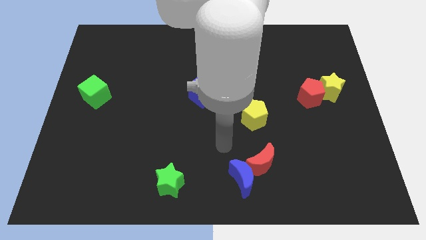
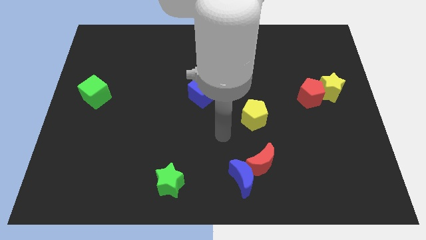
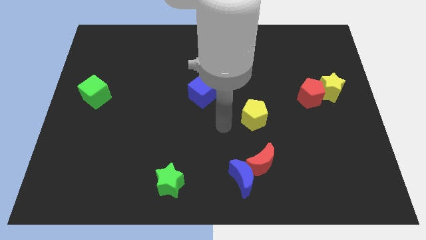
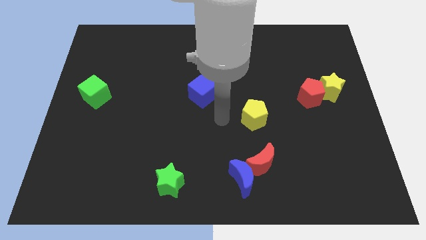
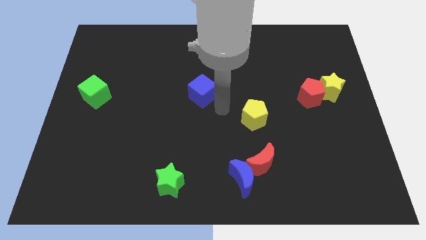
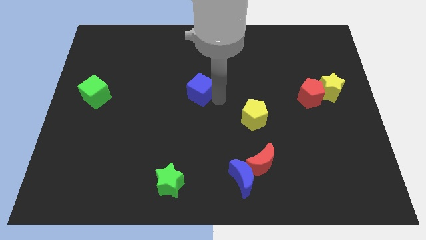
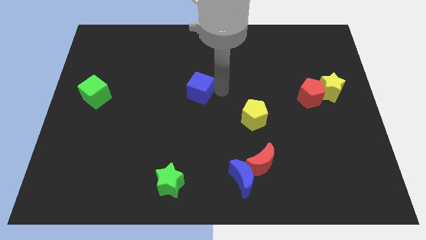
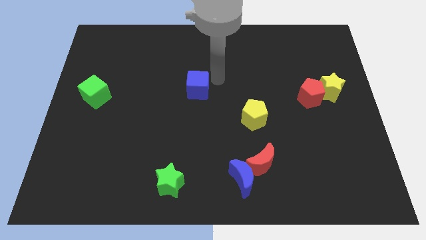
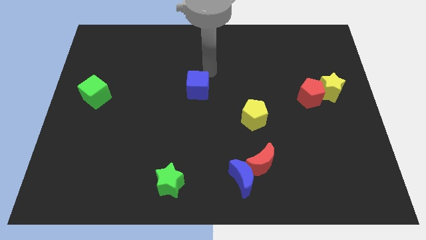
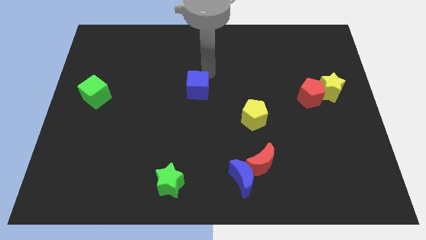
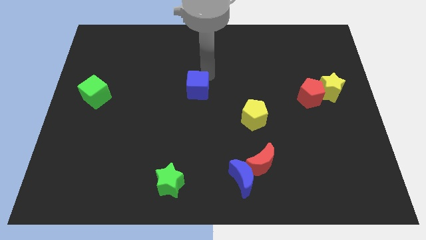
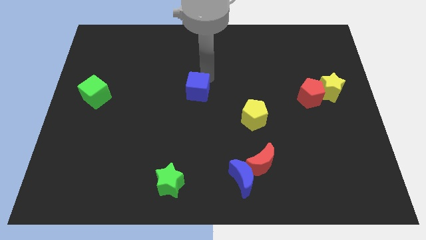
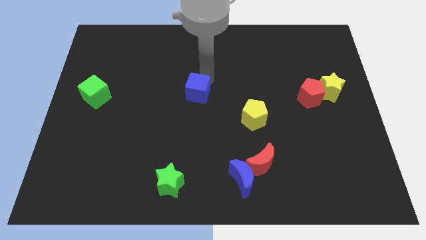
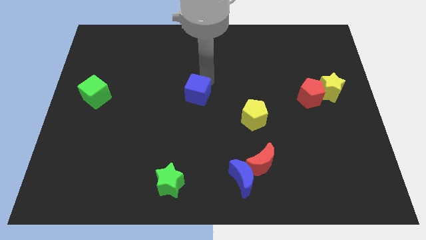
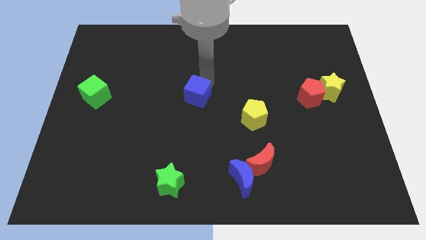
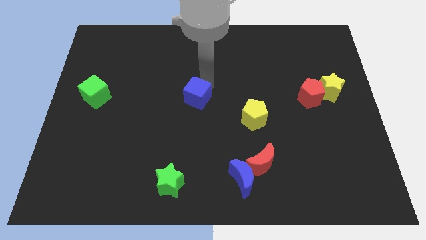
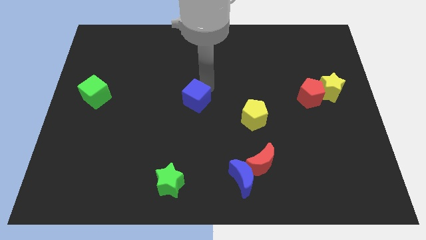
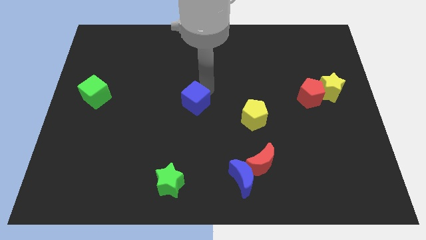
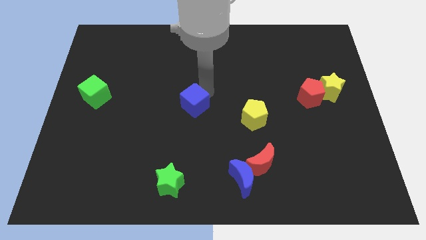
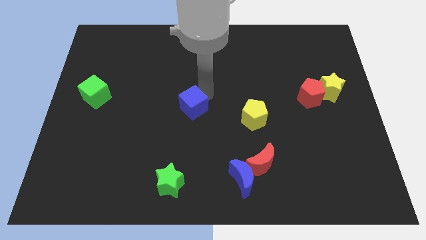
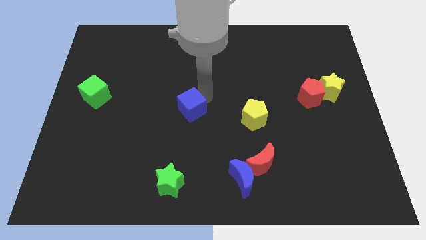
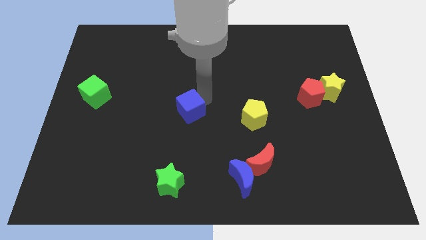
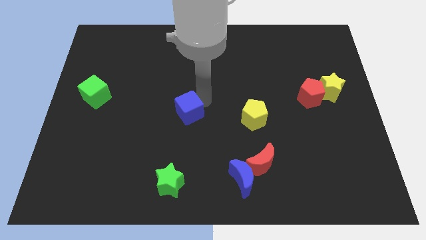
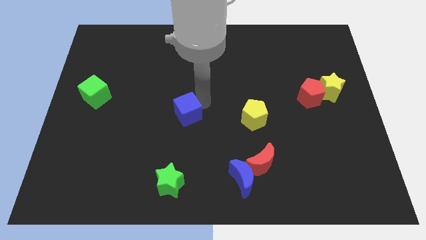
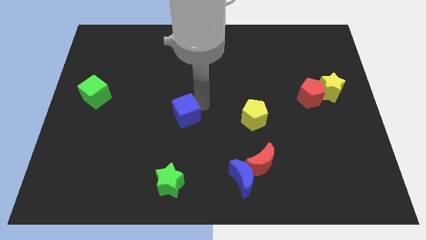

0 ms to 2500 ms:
slide the blue cube a bit diagonally downwards and to the left

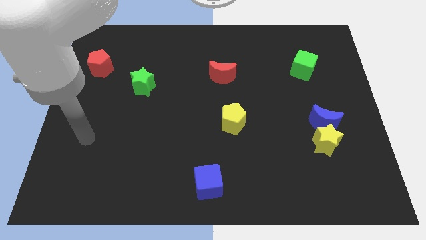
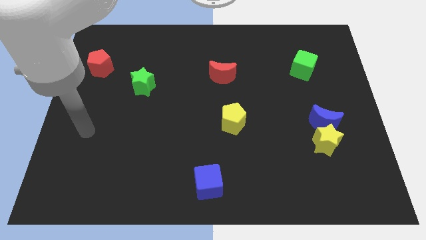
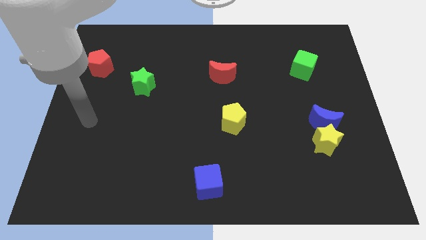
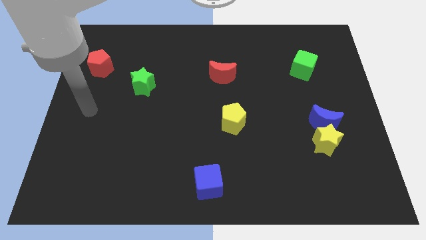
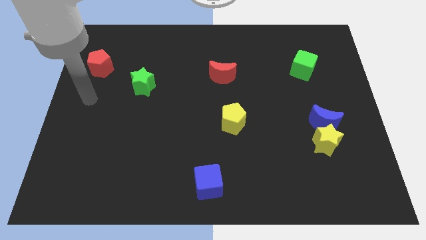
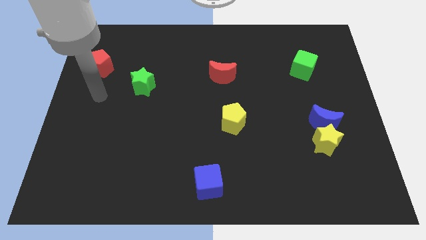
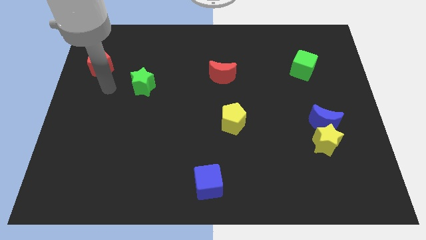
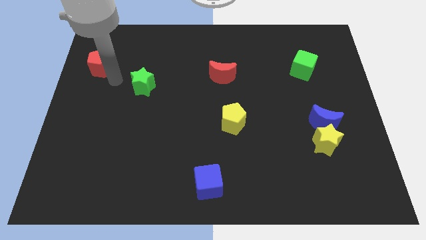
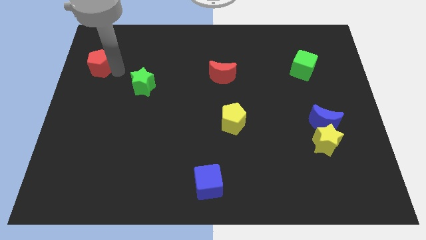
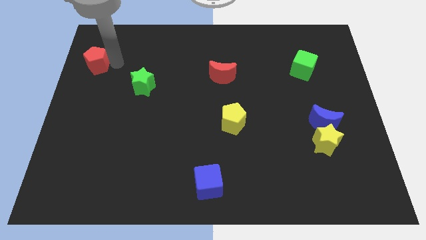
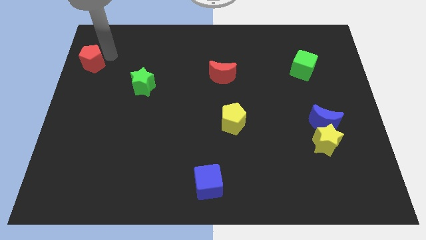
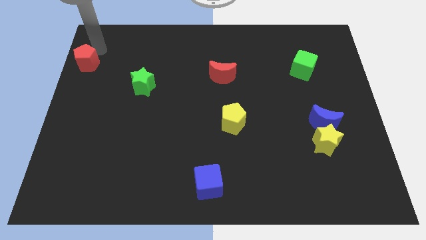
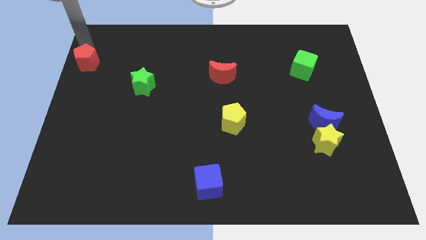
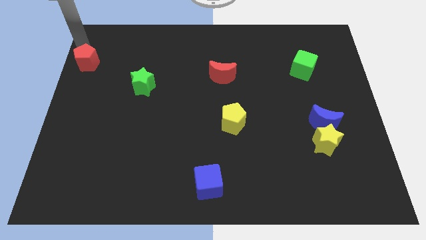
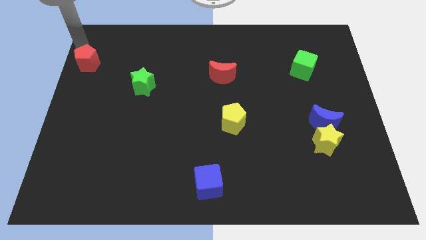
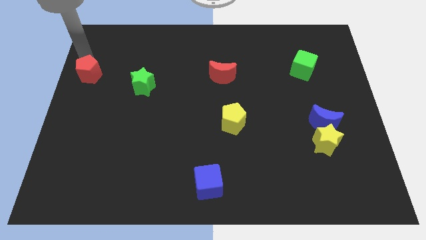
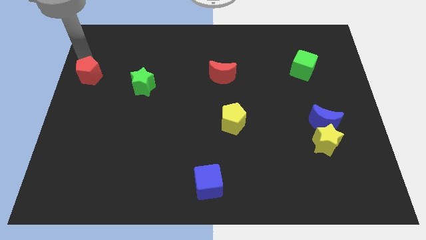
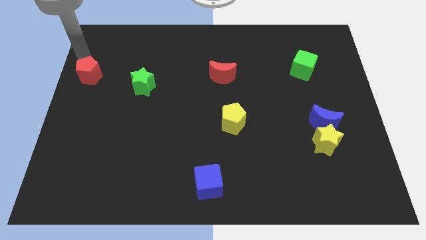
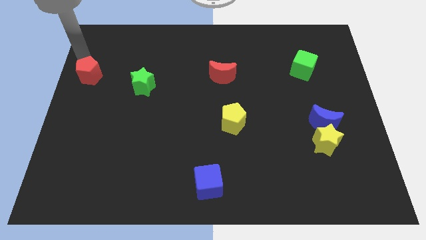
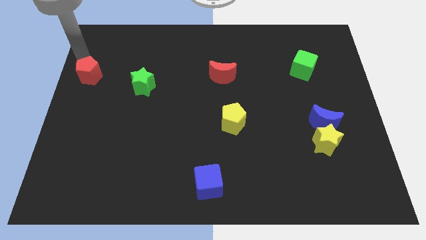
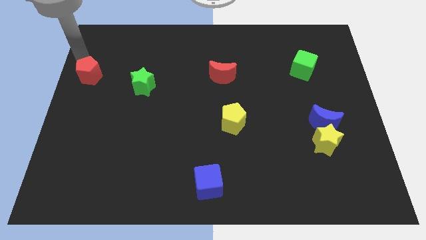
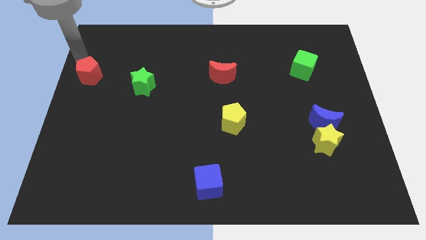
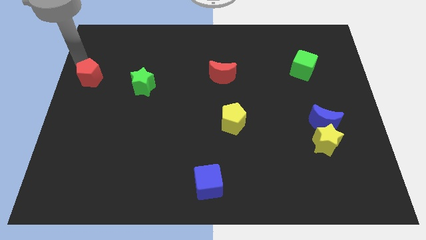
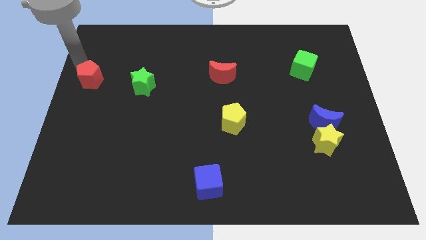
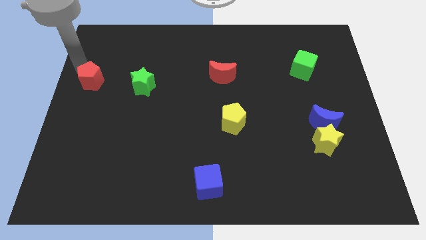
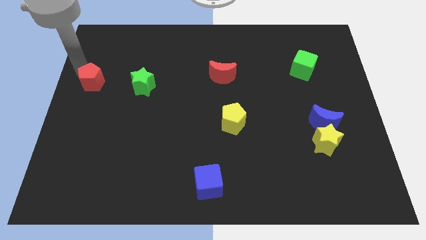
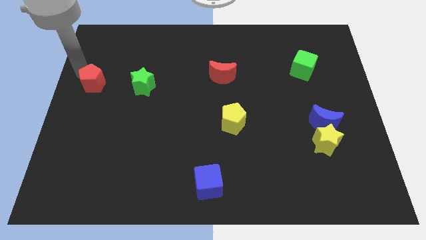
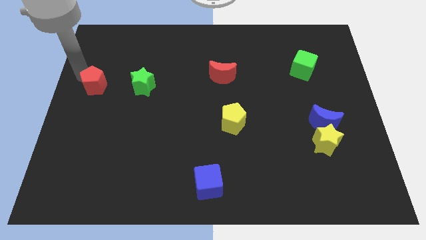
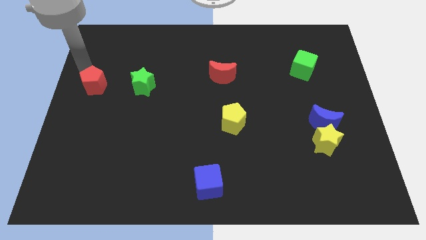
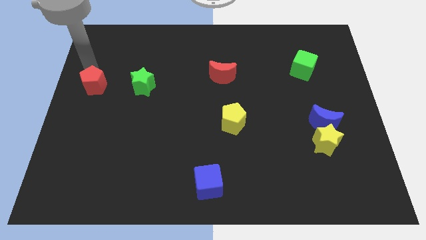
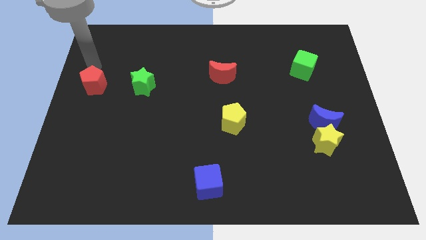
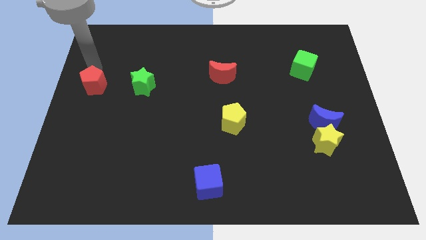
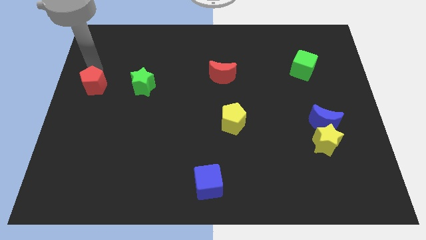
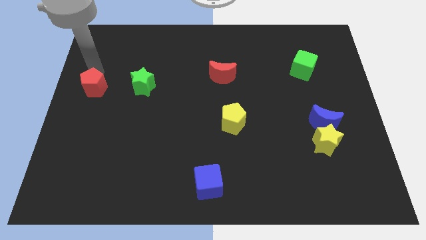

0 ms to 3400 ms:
slightly slide the red pentagon down

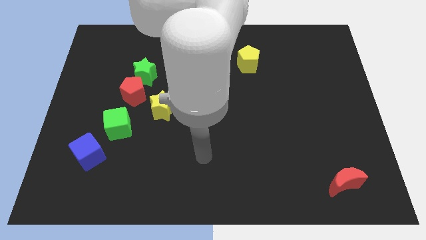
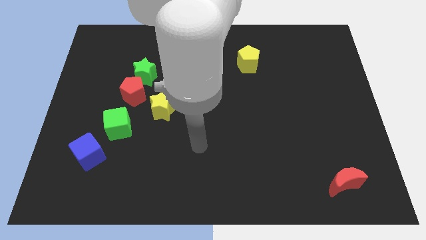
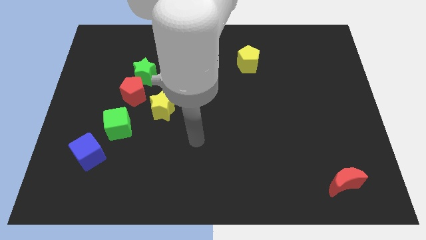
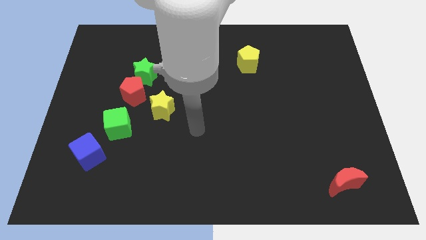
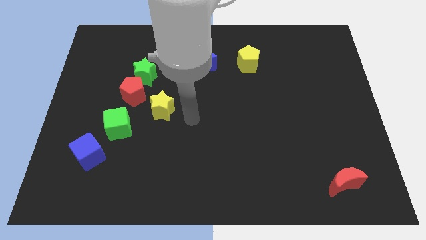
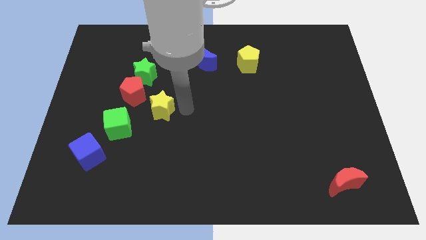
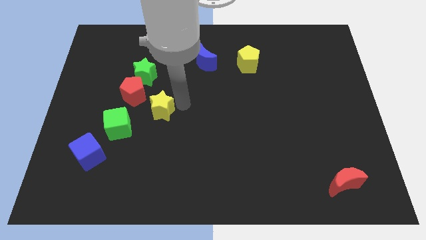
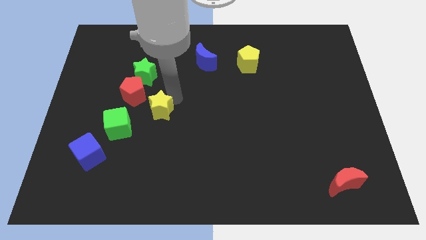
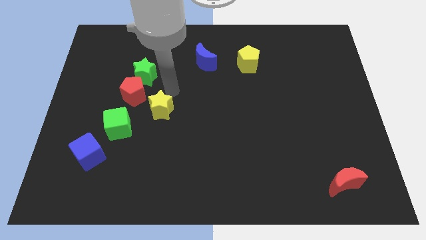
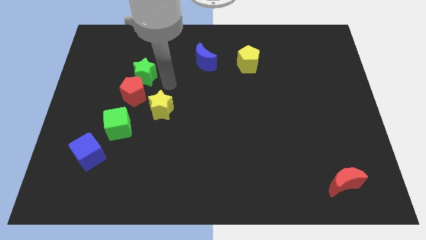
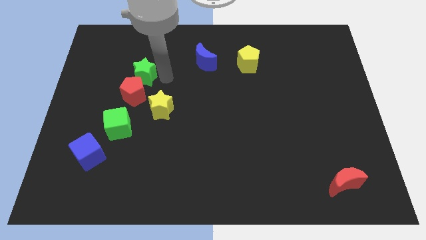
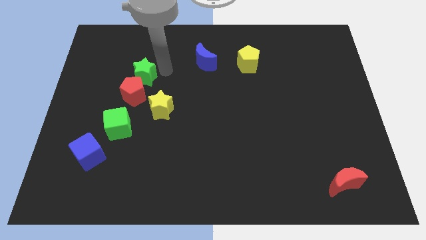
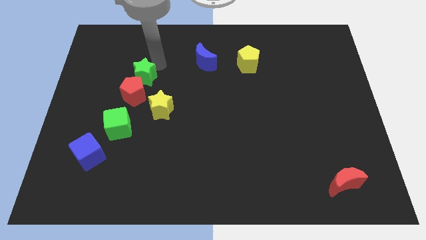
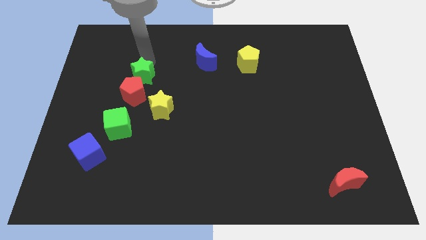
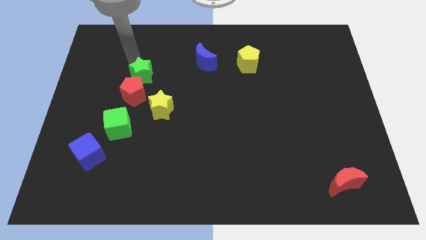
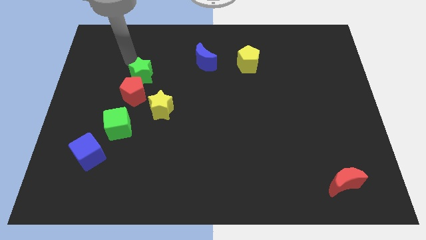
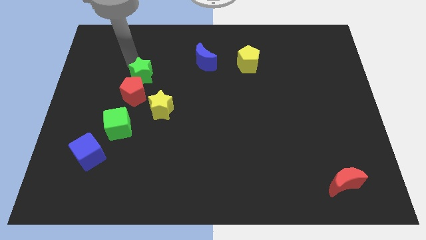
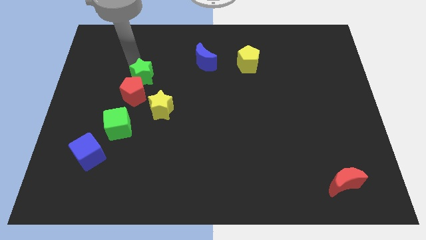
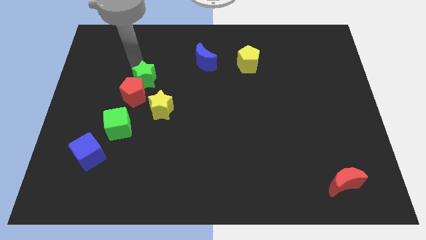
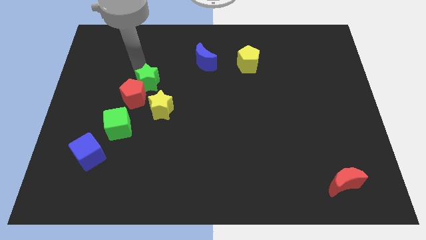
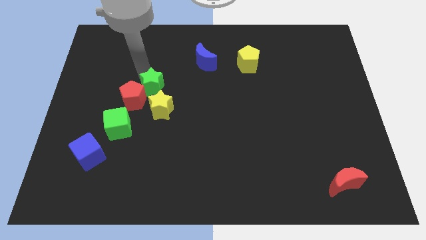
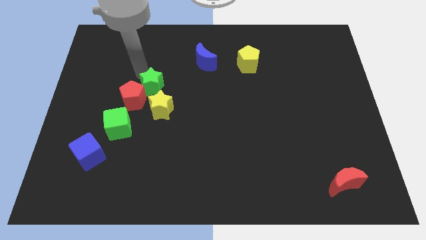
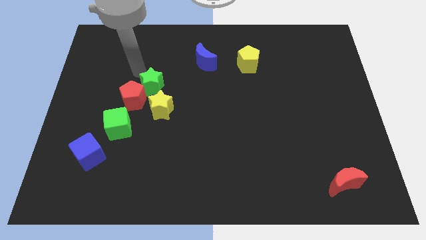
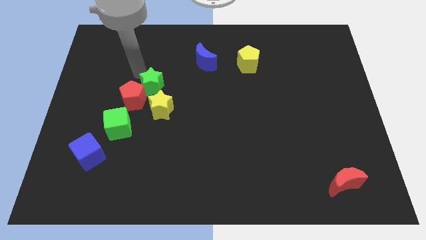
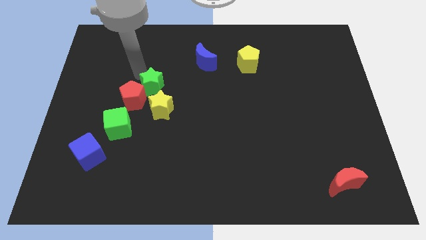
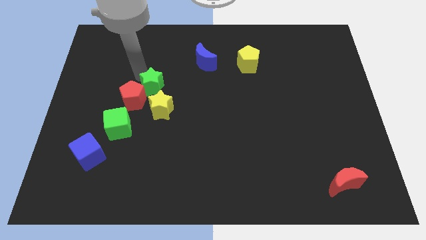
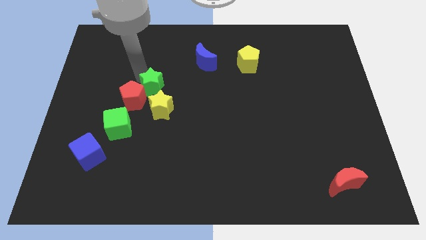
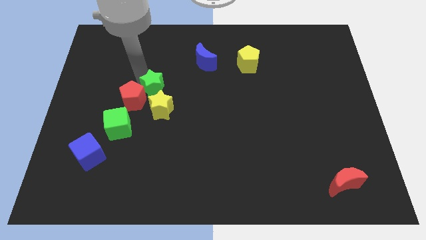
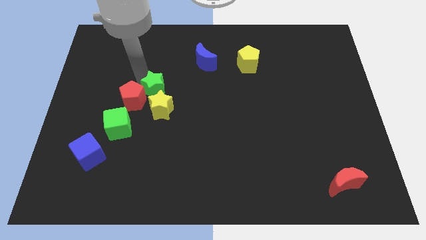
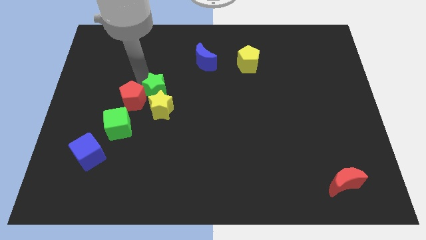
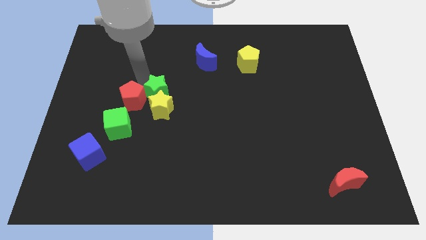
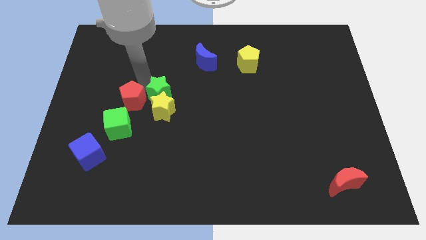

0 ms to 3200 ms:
slide the green star diagonally down and to the right a little bit
